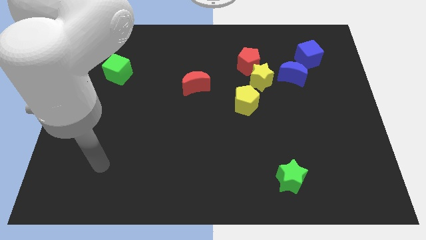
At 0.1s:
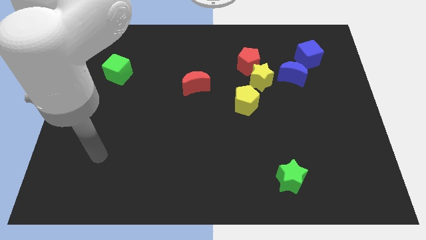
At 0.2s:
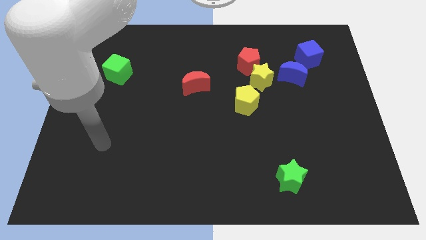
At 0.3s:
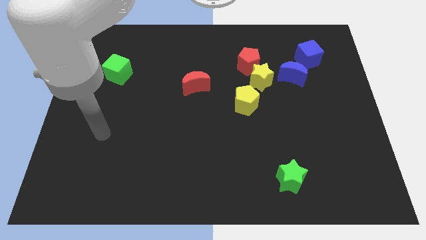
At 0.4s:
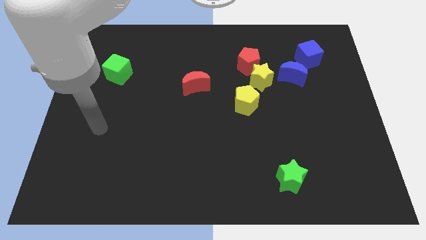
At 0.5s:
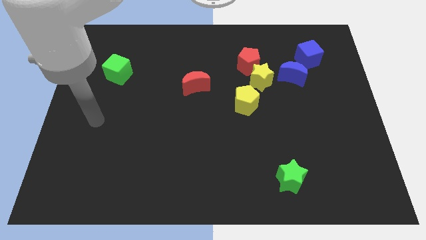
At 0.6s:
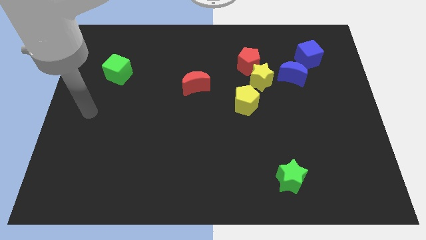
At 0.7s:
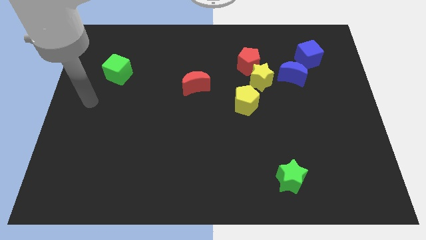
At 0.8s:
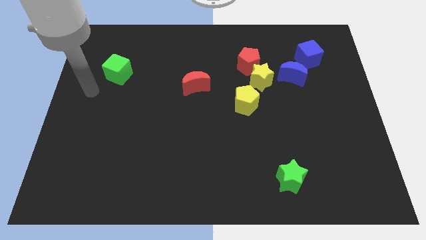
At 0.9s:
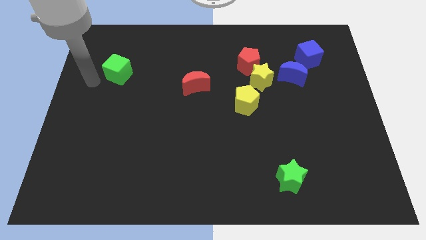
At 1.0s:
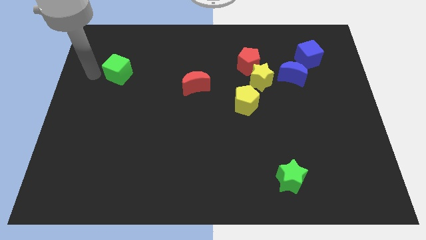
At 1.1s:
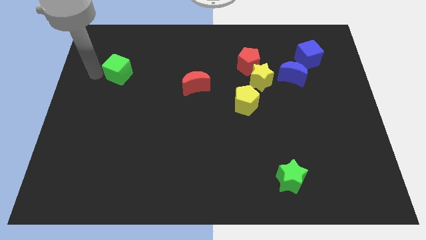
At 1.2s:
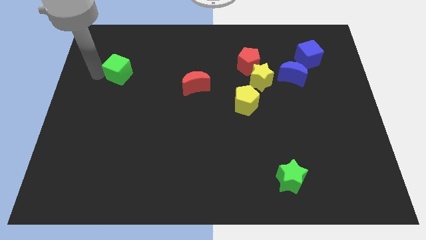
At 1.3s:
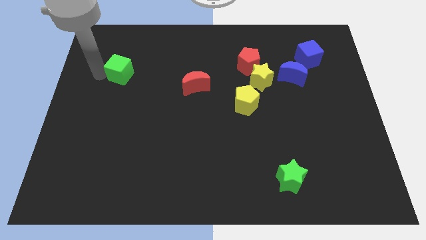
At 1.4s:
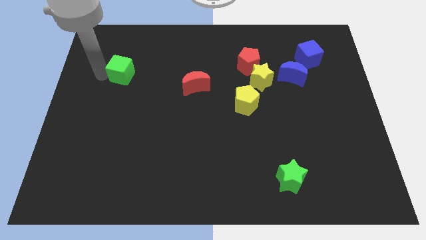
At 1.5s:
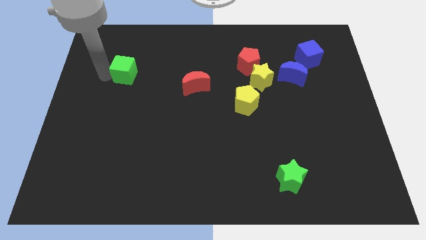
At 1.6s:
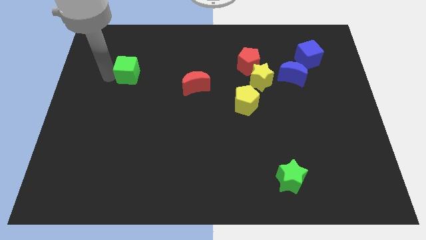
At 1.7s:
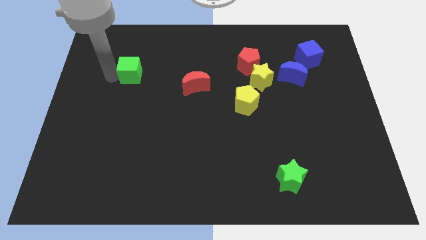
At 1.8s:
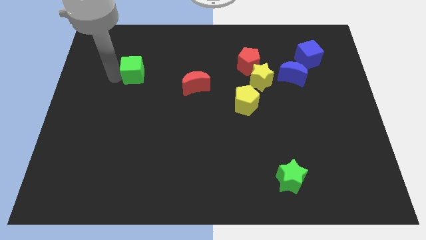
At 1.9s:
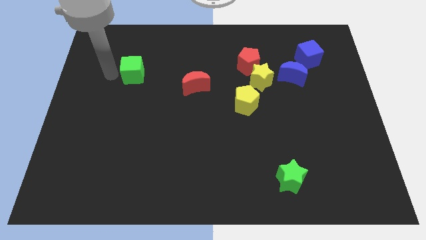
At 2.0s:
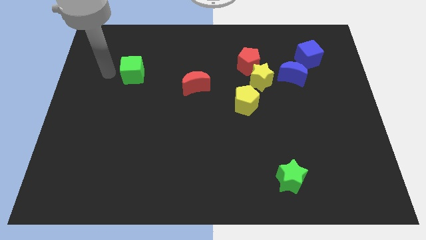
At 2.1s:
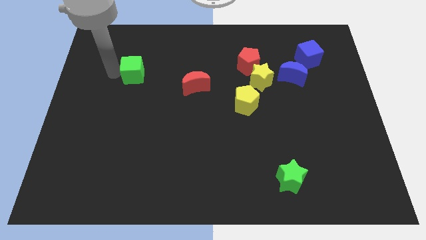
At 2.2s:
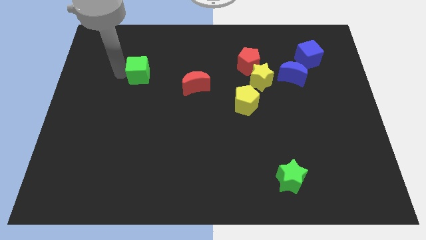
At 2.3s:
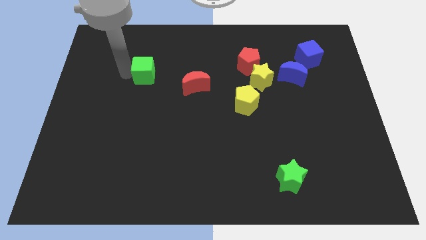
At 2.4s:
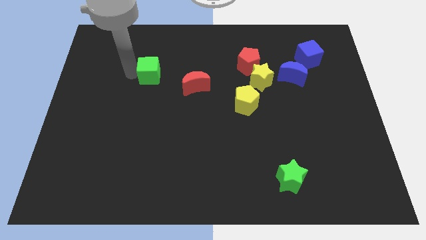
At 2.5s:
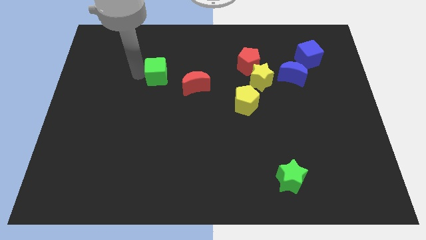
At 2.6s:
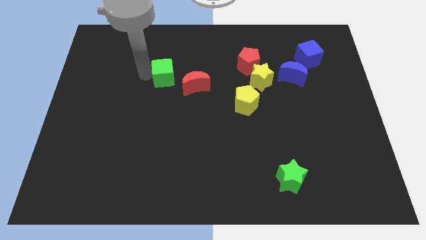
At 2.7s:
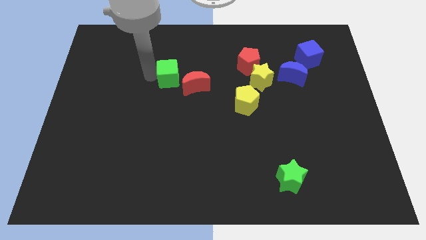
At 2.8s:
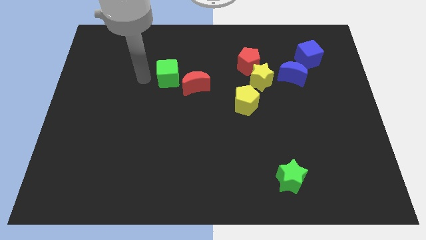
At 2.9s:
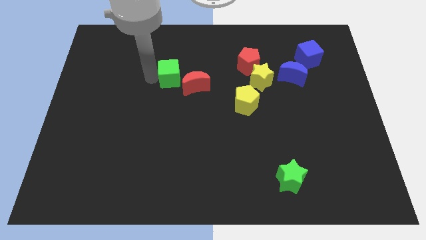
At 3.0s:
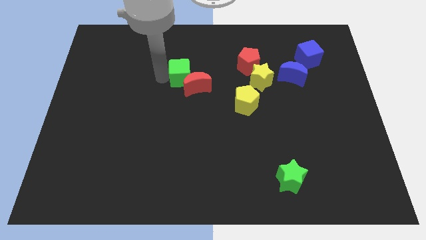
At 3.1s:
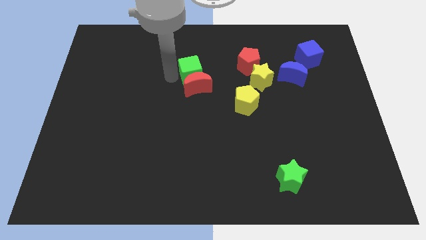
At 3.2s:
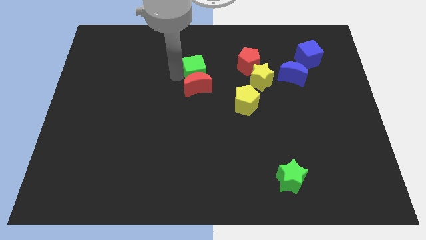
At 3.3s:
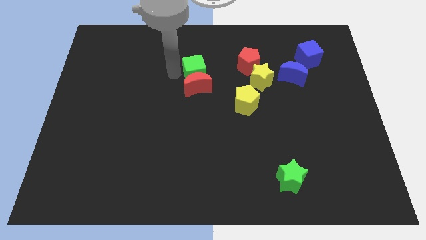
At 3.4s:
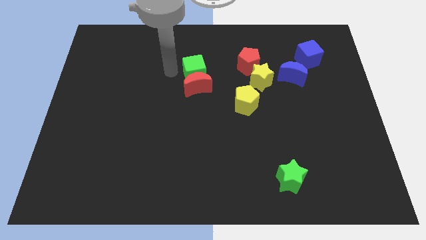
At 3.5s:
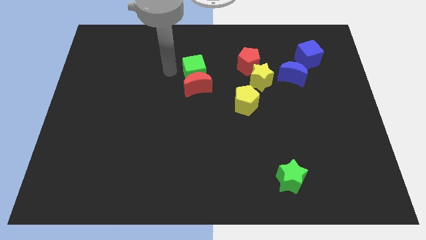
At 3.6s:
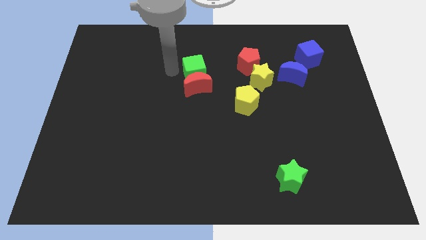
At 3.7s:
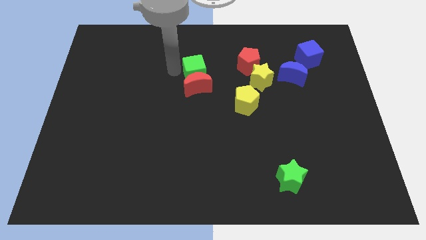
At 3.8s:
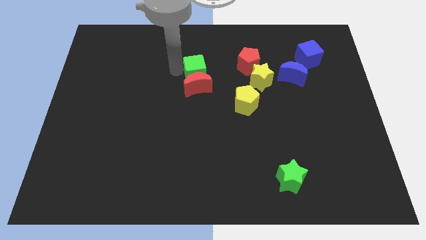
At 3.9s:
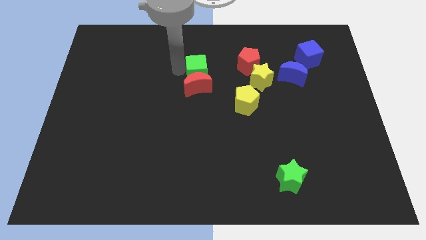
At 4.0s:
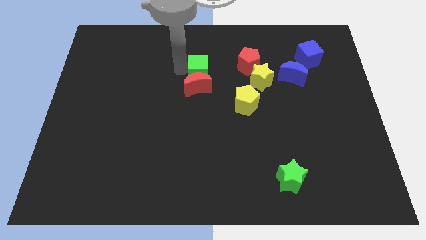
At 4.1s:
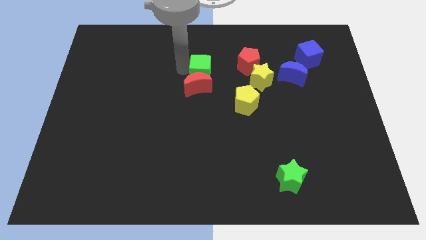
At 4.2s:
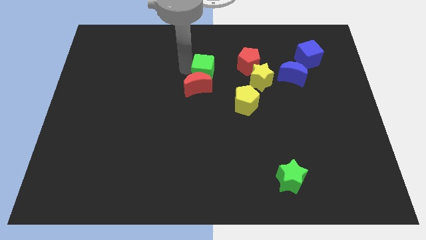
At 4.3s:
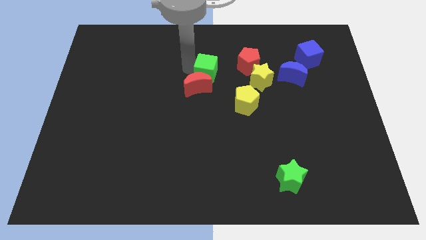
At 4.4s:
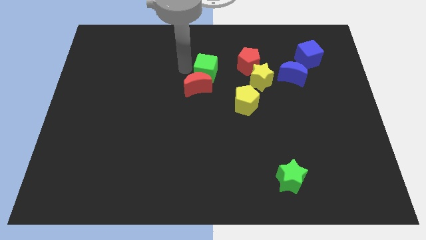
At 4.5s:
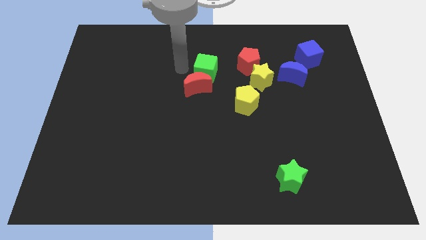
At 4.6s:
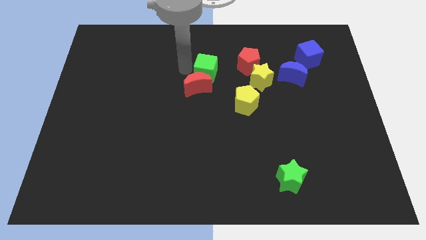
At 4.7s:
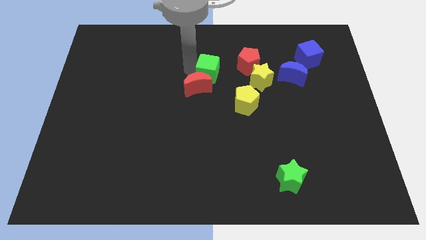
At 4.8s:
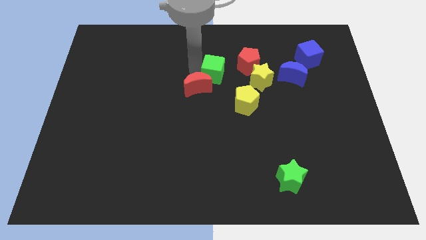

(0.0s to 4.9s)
move the green cube right of the red moon

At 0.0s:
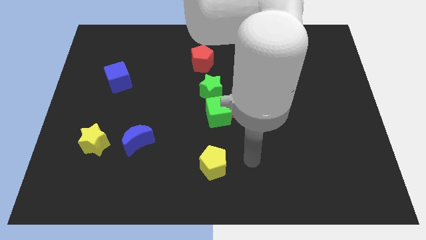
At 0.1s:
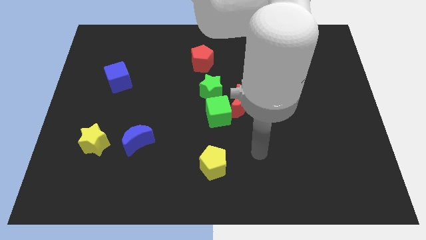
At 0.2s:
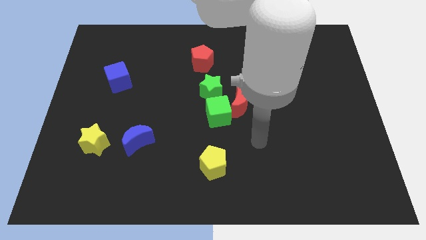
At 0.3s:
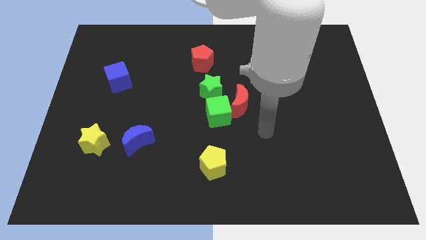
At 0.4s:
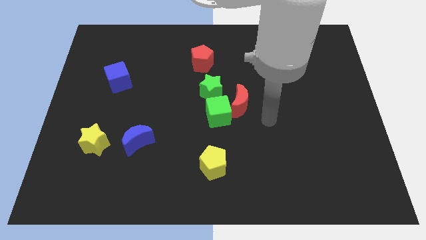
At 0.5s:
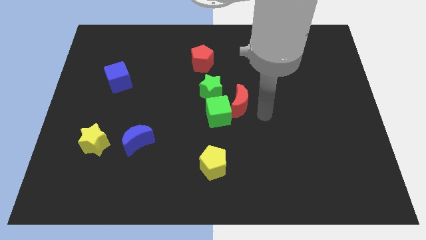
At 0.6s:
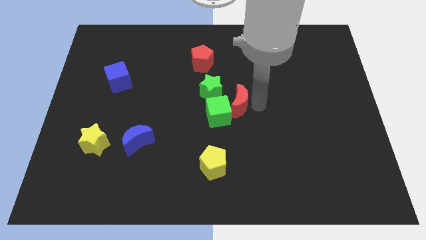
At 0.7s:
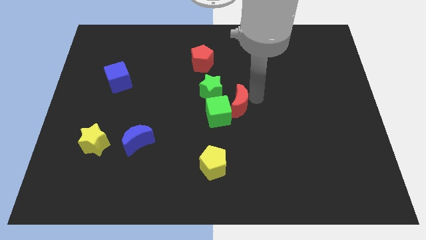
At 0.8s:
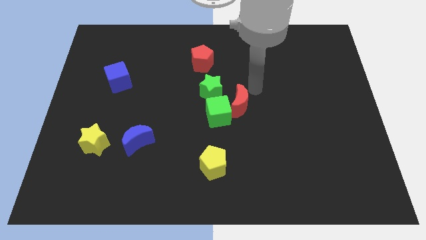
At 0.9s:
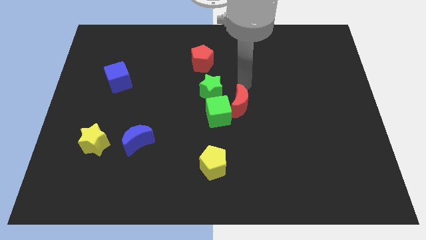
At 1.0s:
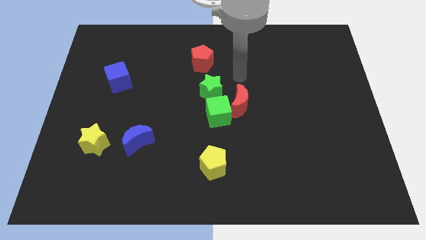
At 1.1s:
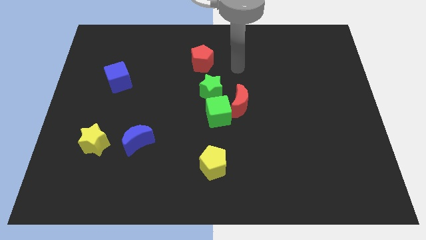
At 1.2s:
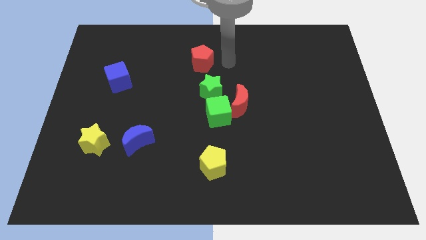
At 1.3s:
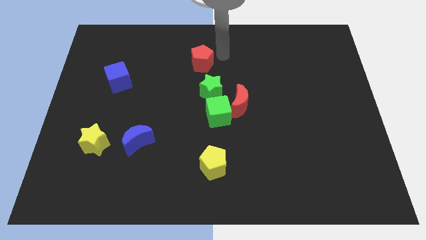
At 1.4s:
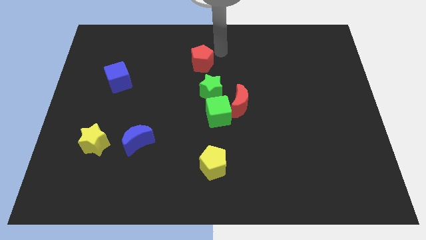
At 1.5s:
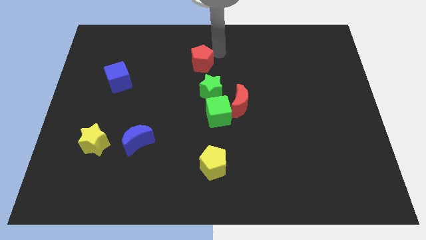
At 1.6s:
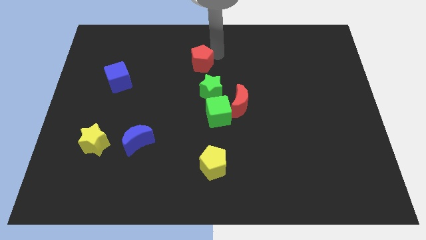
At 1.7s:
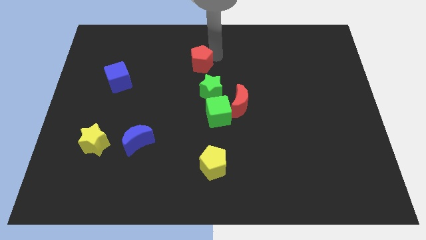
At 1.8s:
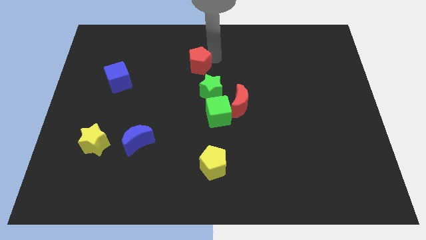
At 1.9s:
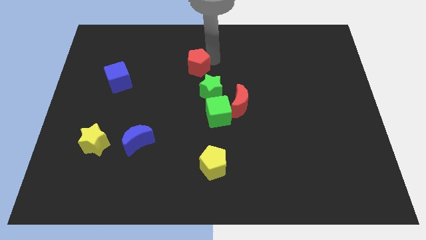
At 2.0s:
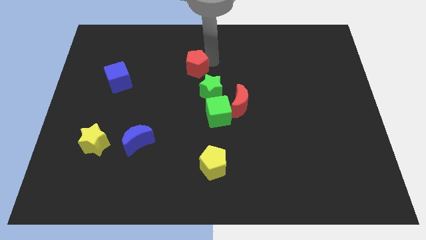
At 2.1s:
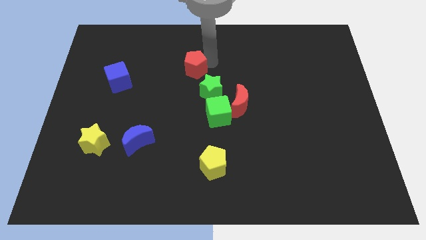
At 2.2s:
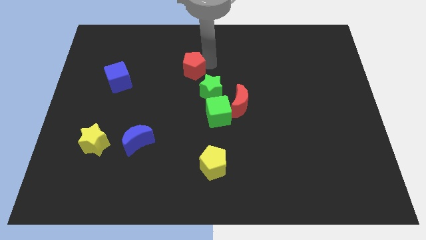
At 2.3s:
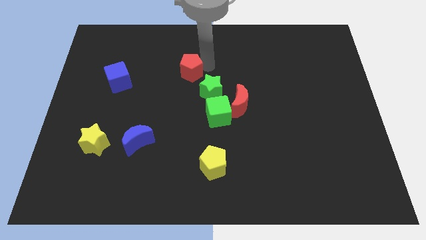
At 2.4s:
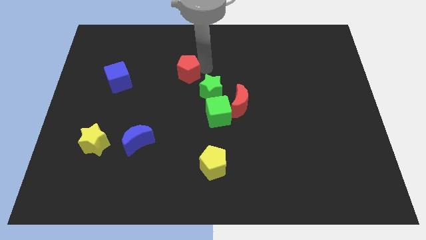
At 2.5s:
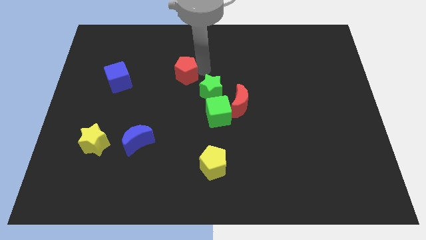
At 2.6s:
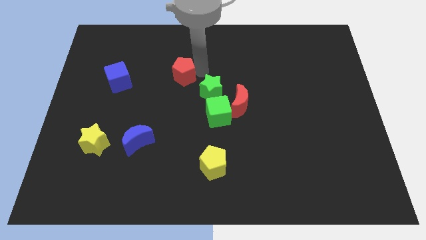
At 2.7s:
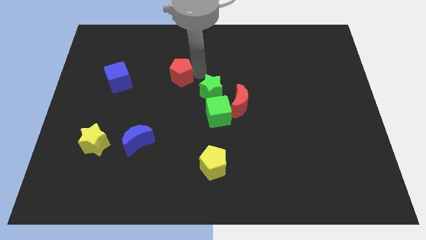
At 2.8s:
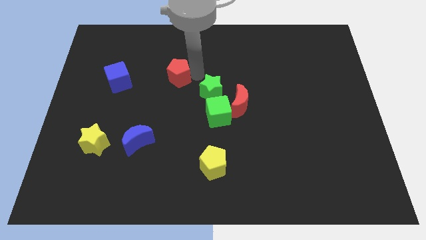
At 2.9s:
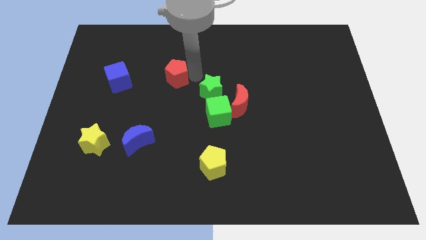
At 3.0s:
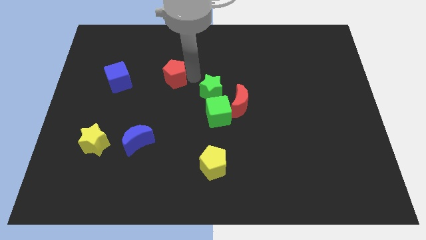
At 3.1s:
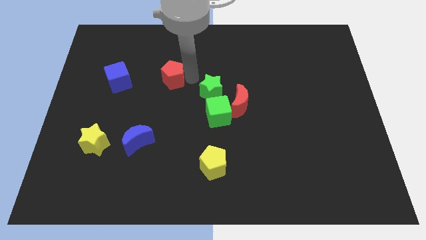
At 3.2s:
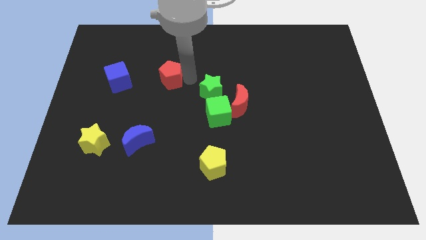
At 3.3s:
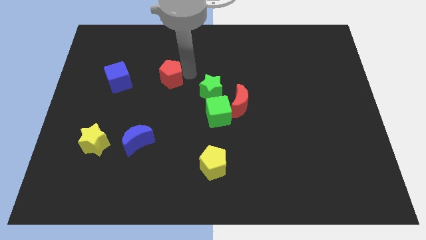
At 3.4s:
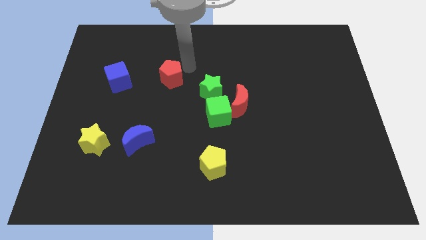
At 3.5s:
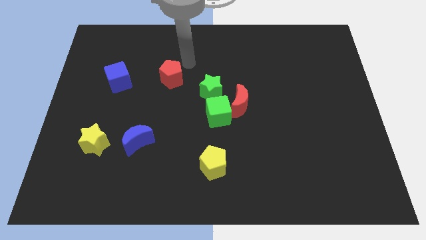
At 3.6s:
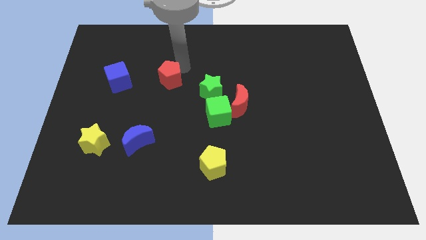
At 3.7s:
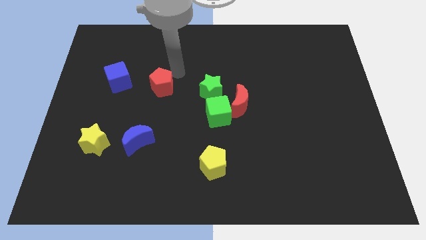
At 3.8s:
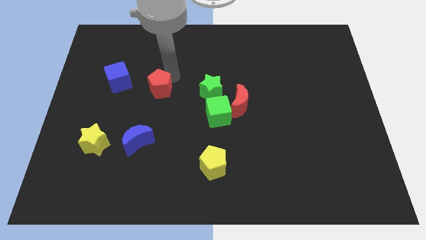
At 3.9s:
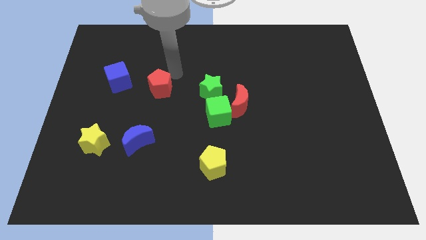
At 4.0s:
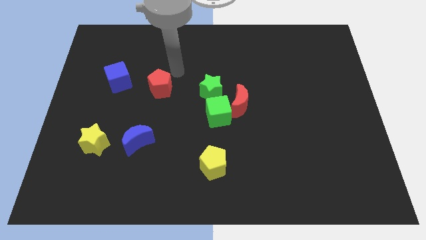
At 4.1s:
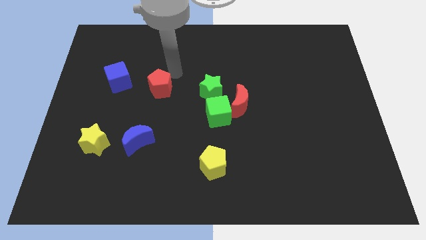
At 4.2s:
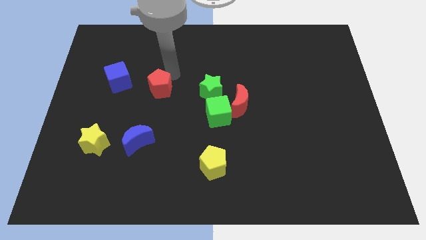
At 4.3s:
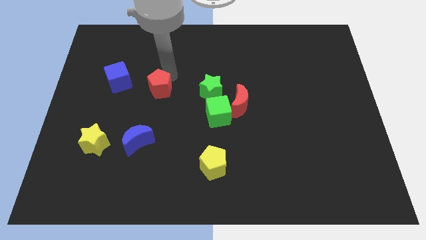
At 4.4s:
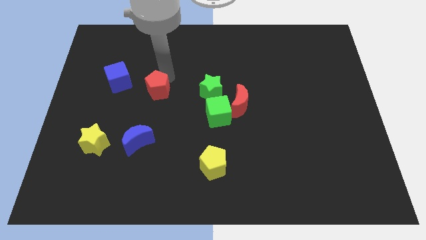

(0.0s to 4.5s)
push the red pentagon above the blue moon
